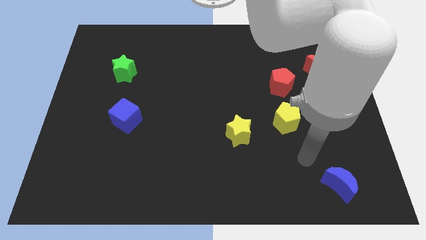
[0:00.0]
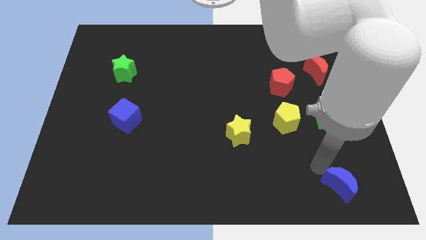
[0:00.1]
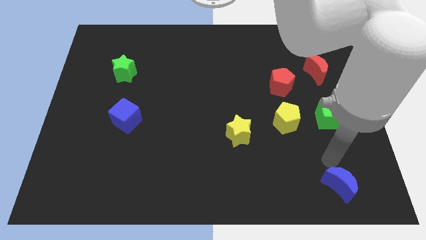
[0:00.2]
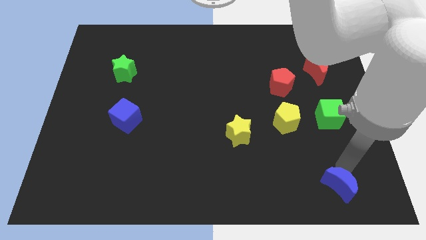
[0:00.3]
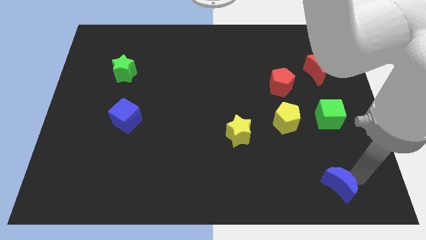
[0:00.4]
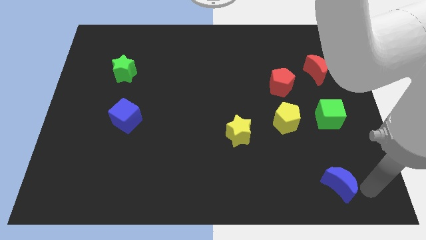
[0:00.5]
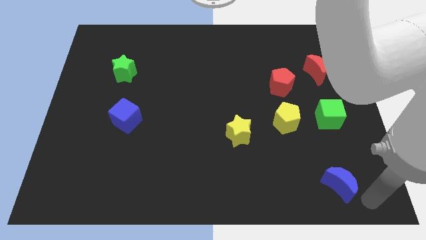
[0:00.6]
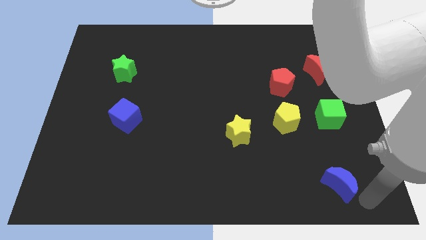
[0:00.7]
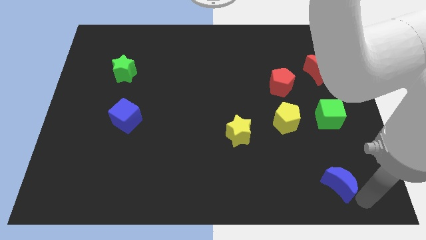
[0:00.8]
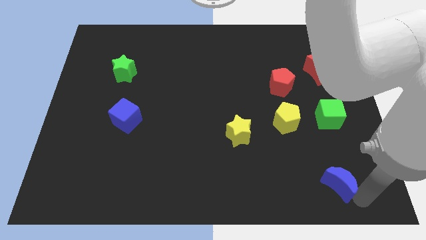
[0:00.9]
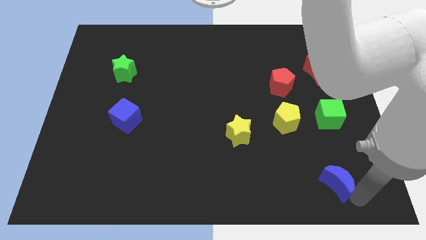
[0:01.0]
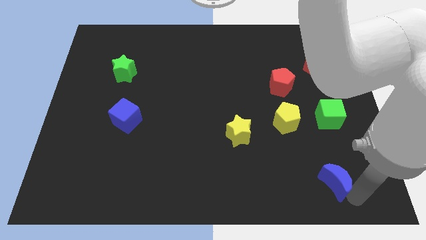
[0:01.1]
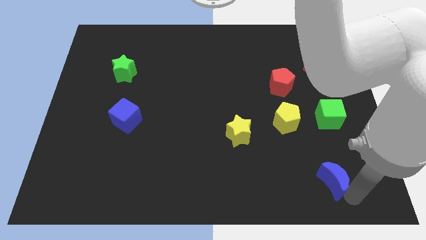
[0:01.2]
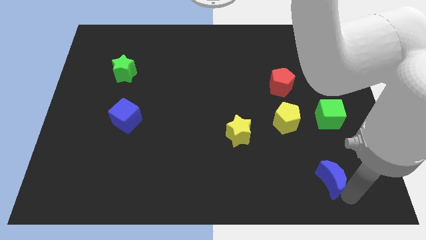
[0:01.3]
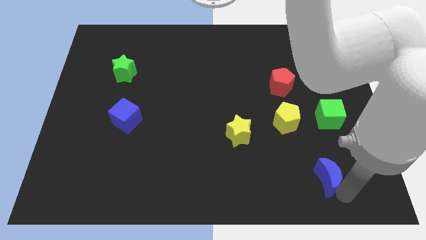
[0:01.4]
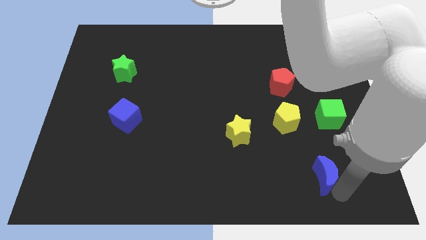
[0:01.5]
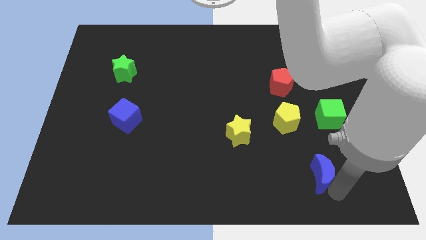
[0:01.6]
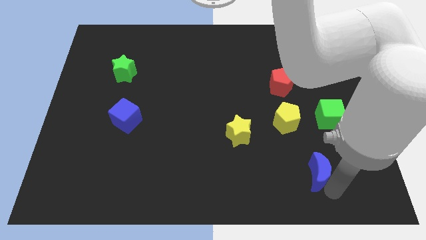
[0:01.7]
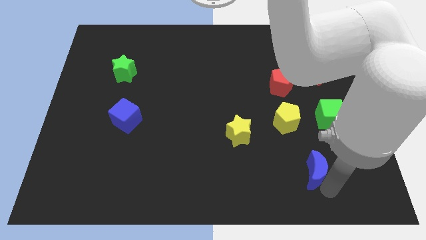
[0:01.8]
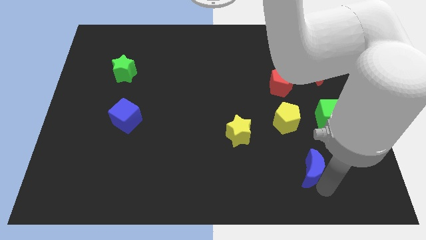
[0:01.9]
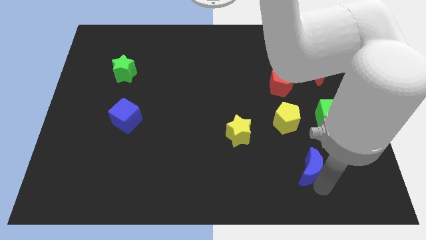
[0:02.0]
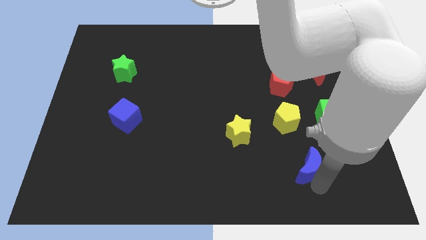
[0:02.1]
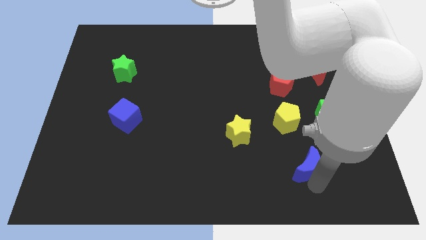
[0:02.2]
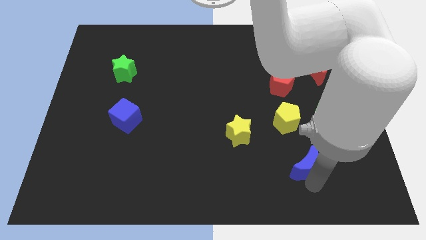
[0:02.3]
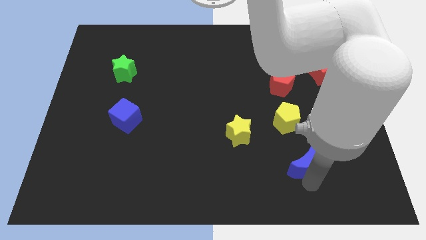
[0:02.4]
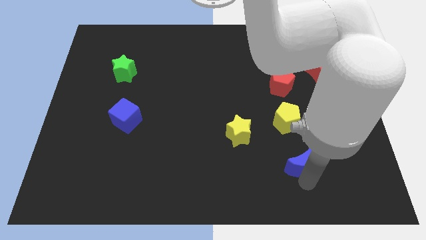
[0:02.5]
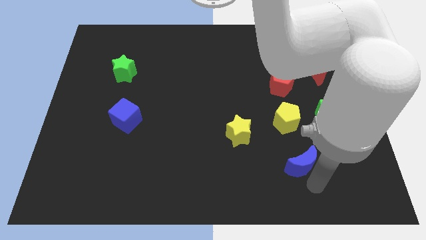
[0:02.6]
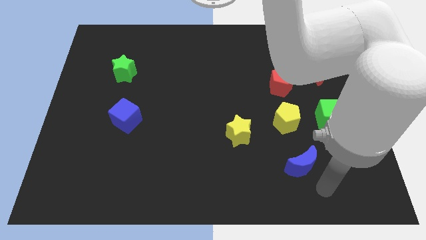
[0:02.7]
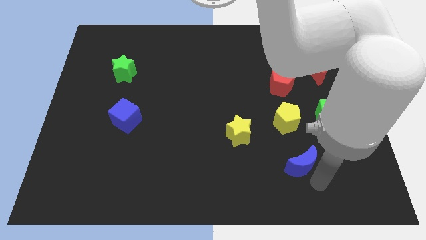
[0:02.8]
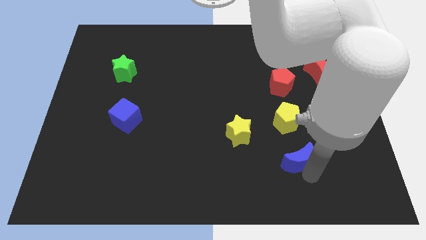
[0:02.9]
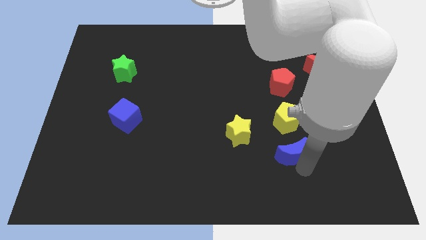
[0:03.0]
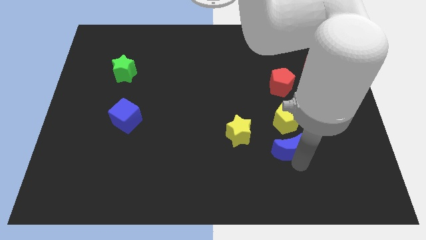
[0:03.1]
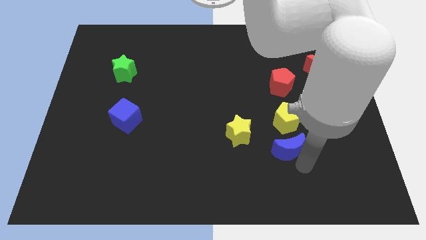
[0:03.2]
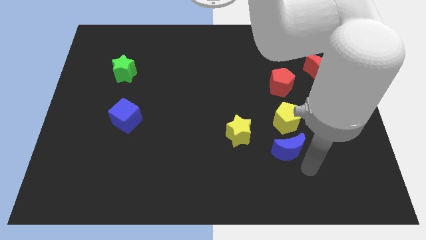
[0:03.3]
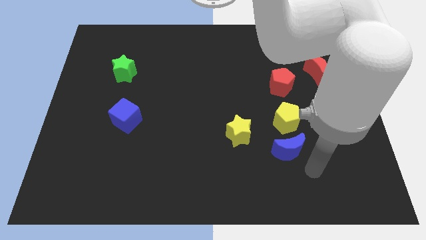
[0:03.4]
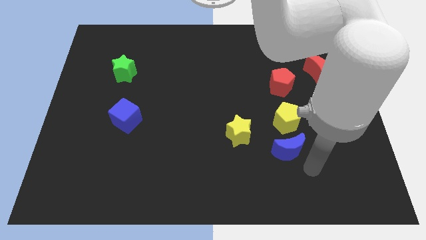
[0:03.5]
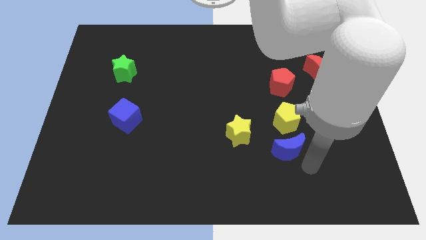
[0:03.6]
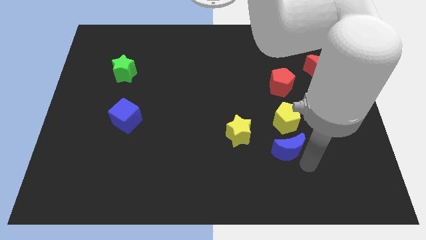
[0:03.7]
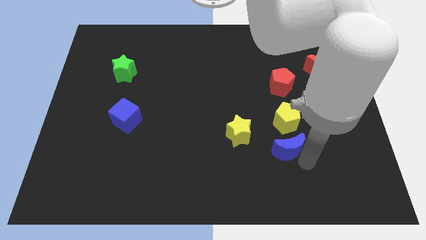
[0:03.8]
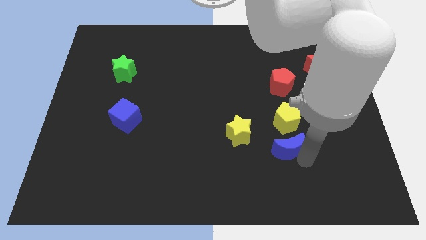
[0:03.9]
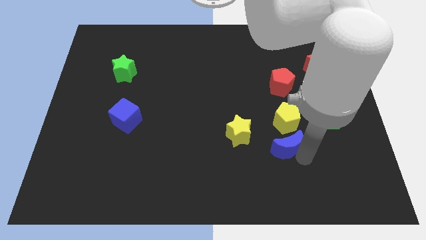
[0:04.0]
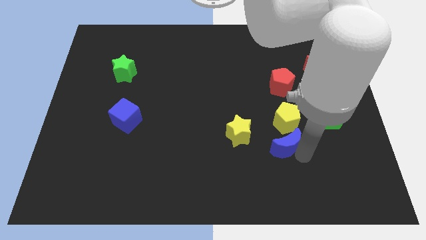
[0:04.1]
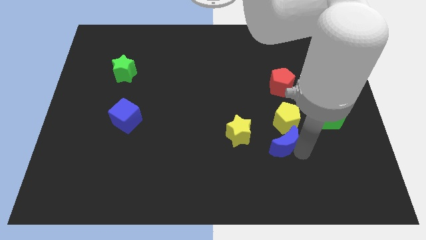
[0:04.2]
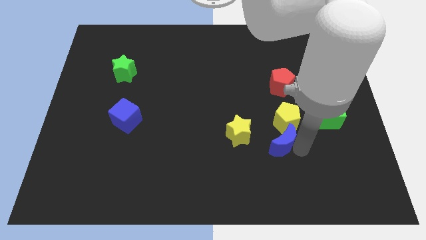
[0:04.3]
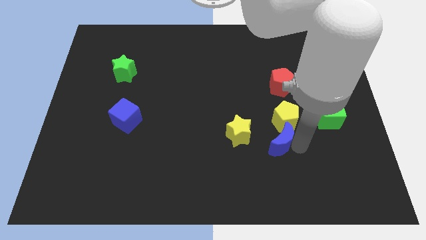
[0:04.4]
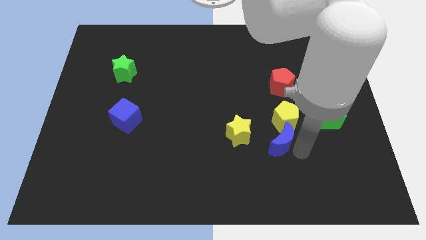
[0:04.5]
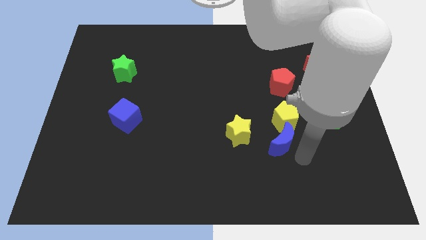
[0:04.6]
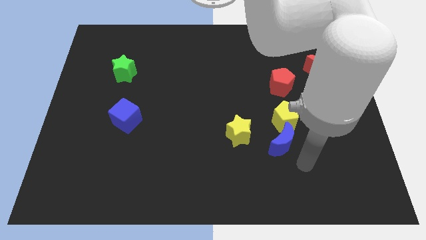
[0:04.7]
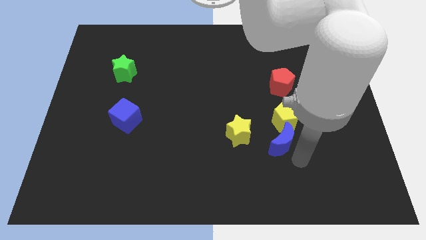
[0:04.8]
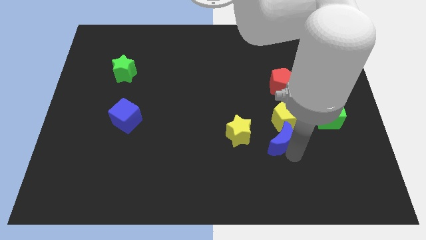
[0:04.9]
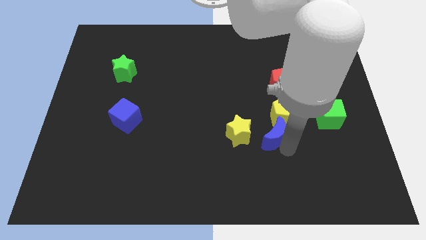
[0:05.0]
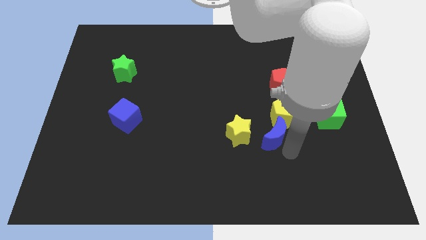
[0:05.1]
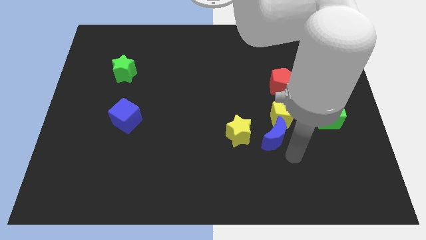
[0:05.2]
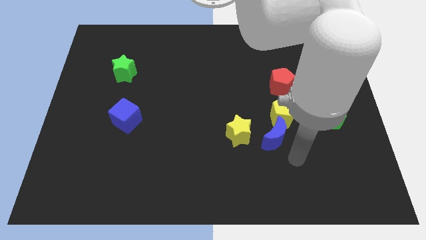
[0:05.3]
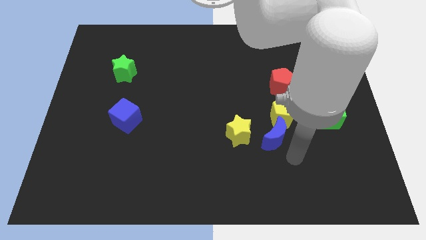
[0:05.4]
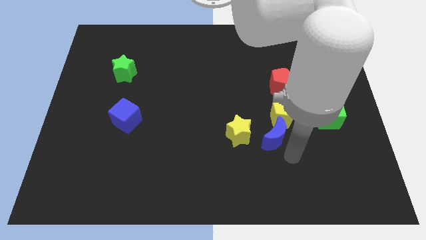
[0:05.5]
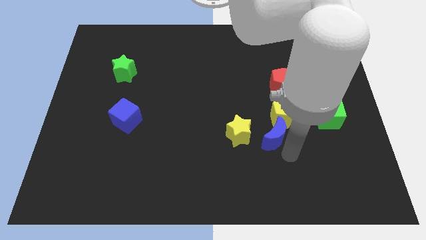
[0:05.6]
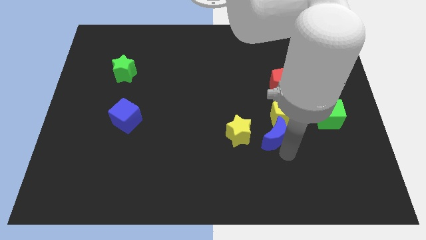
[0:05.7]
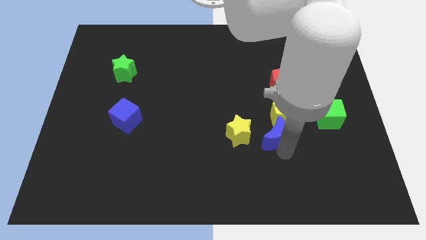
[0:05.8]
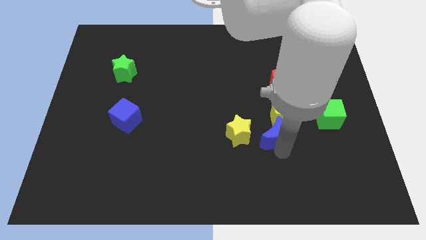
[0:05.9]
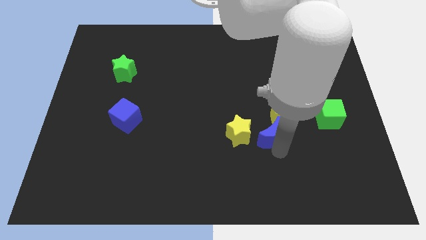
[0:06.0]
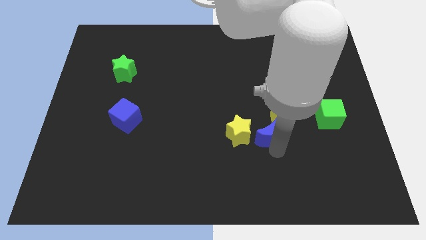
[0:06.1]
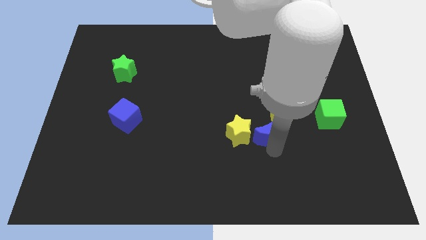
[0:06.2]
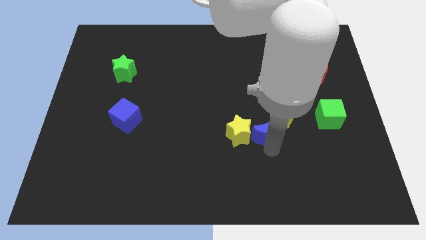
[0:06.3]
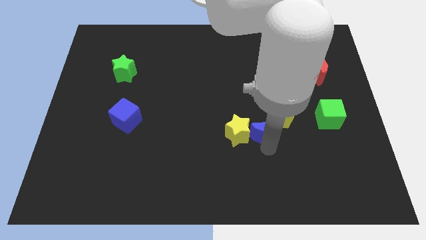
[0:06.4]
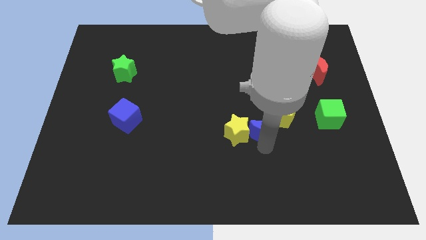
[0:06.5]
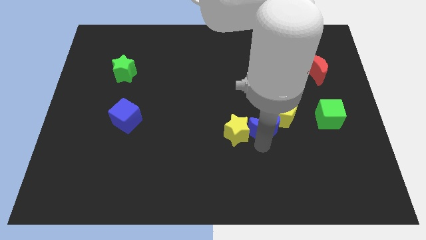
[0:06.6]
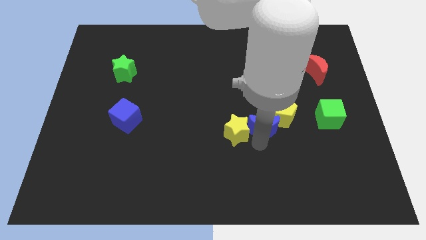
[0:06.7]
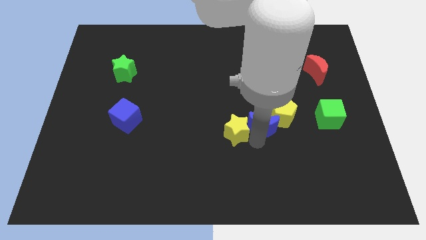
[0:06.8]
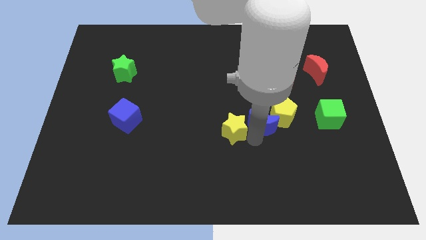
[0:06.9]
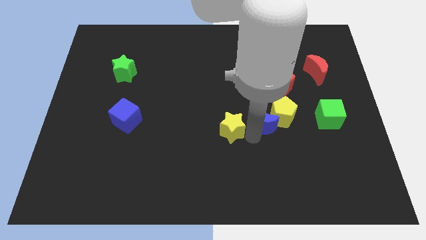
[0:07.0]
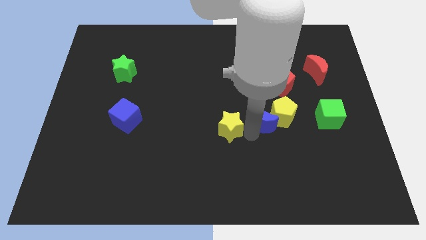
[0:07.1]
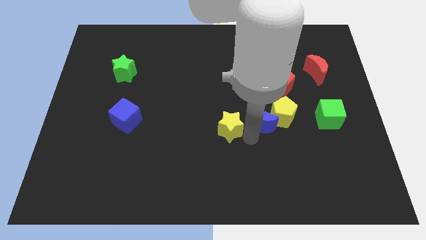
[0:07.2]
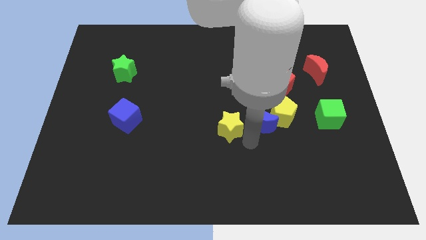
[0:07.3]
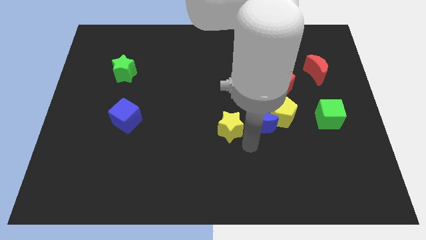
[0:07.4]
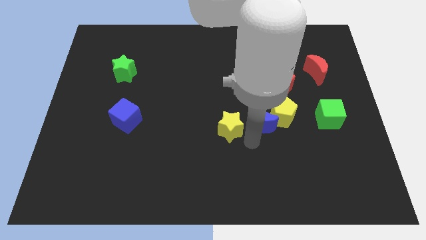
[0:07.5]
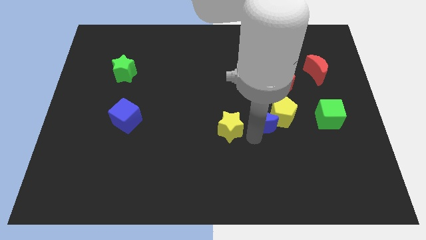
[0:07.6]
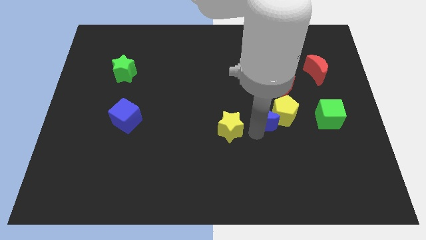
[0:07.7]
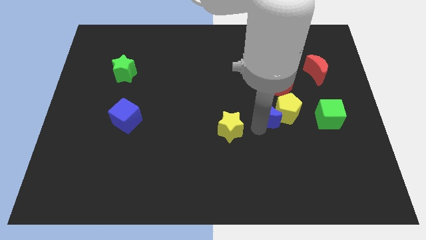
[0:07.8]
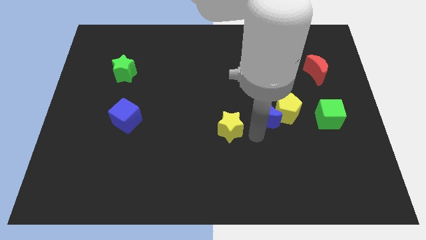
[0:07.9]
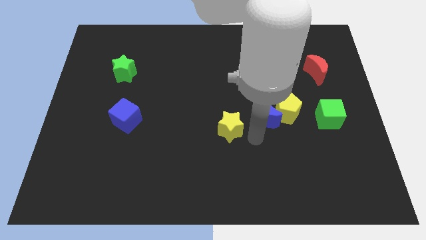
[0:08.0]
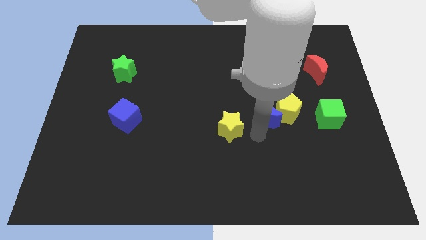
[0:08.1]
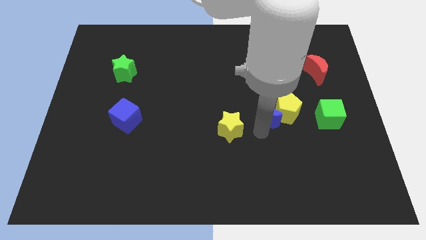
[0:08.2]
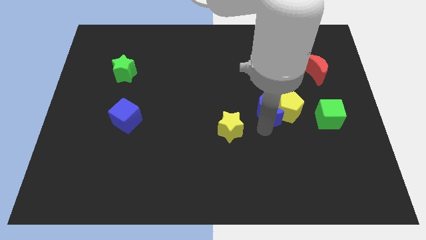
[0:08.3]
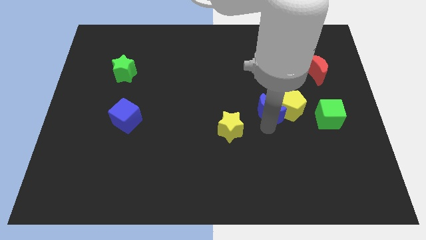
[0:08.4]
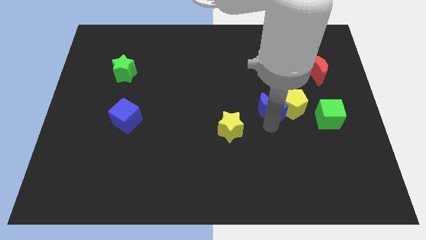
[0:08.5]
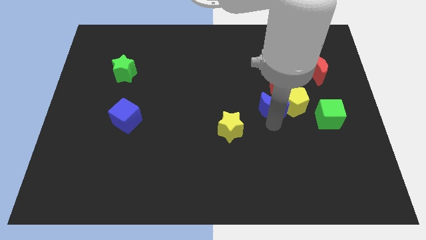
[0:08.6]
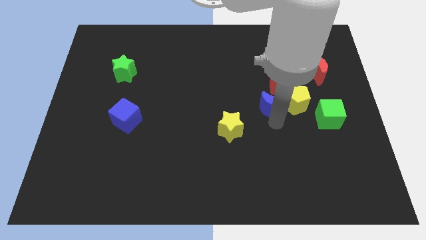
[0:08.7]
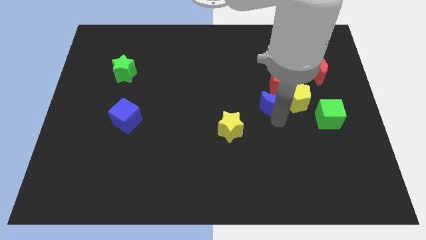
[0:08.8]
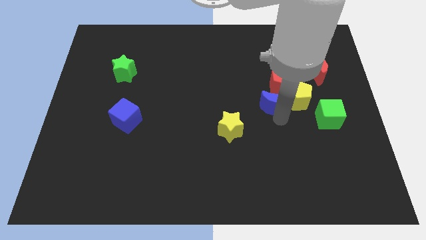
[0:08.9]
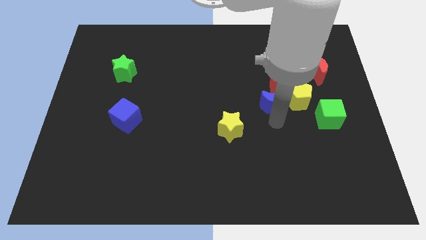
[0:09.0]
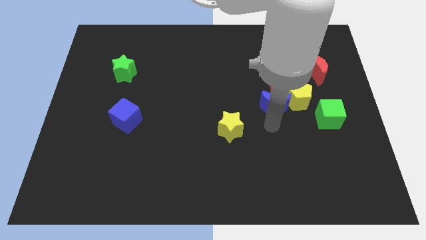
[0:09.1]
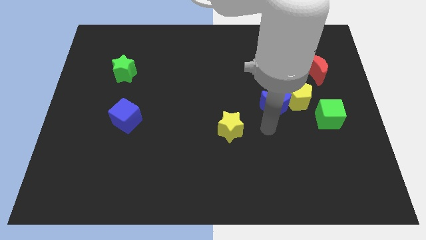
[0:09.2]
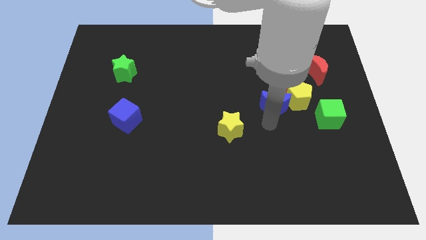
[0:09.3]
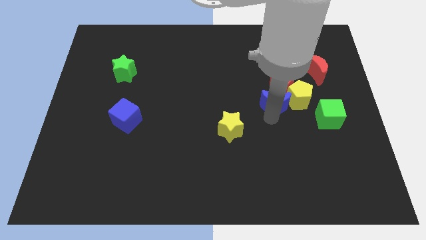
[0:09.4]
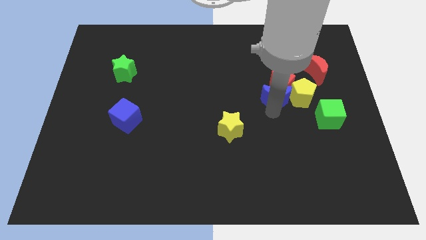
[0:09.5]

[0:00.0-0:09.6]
slide the blue moon to the red pentagon
